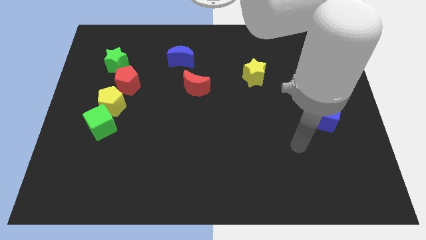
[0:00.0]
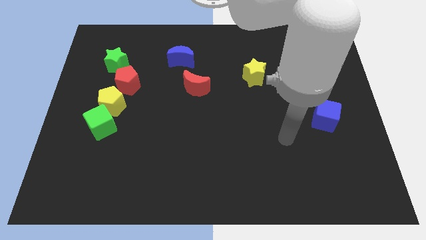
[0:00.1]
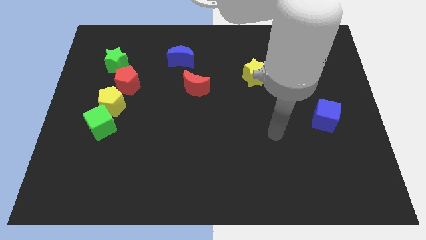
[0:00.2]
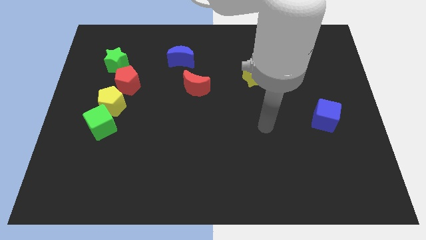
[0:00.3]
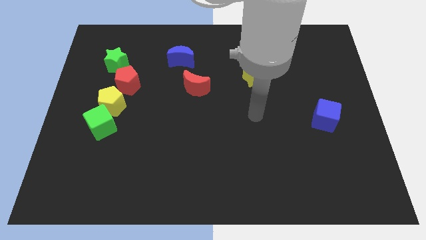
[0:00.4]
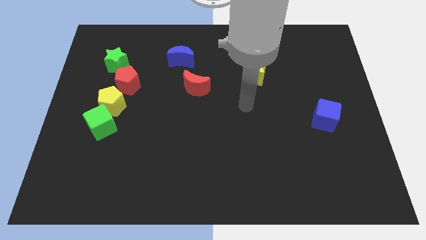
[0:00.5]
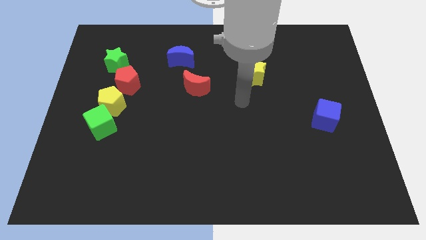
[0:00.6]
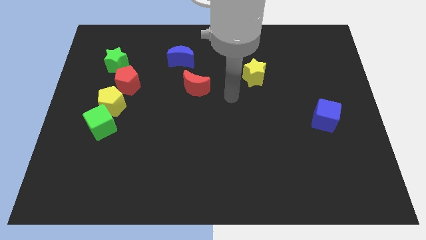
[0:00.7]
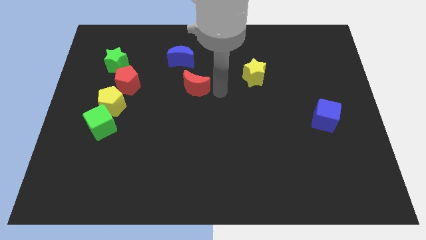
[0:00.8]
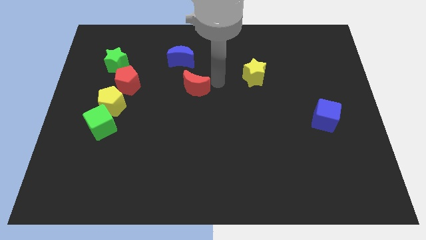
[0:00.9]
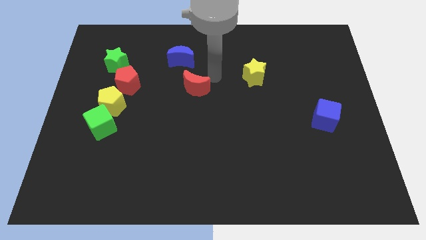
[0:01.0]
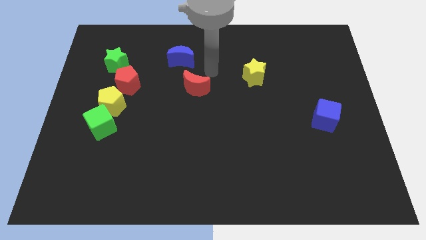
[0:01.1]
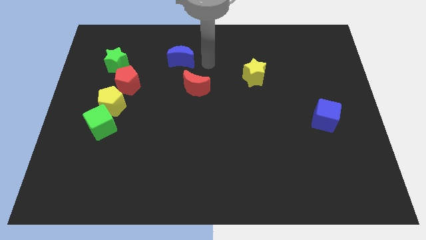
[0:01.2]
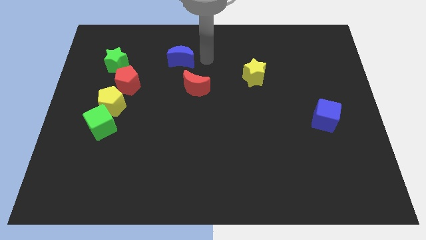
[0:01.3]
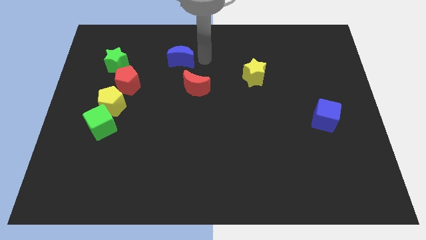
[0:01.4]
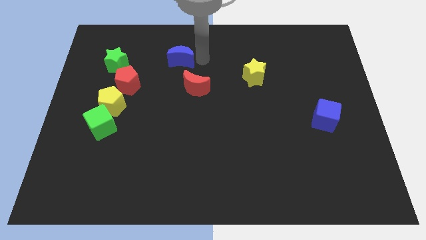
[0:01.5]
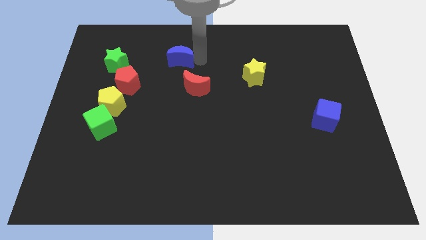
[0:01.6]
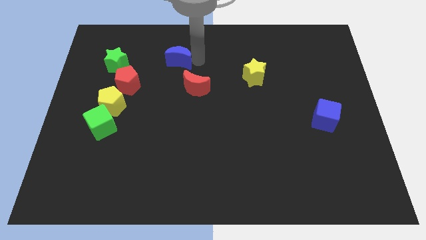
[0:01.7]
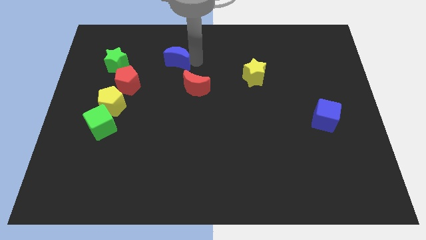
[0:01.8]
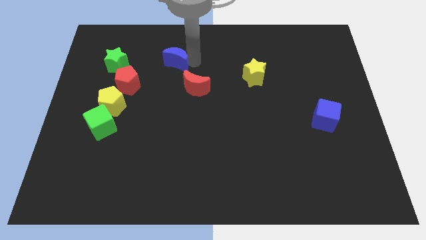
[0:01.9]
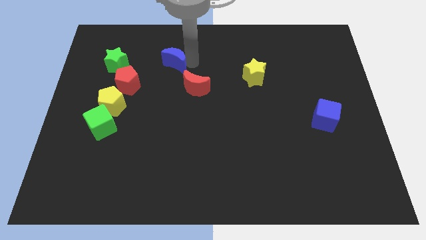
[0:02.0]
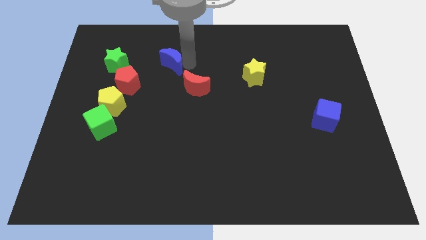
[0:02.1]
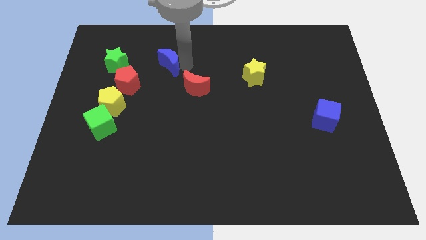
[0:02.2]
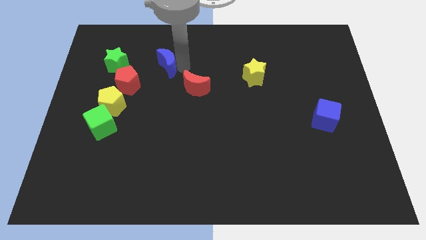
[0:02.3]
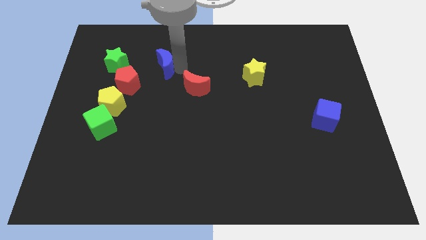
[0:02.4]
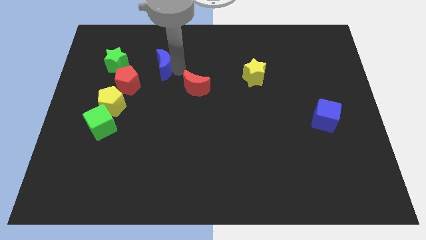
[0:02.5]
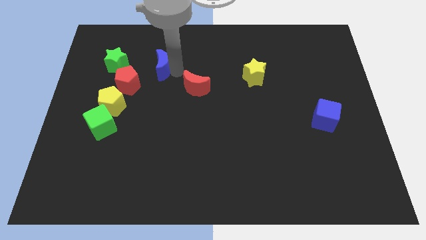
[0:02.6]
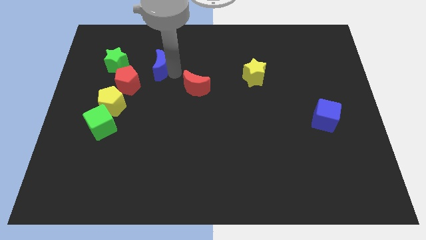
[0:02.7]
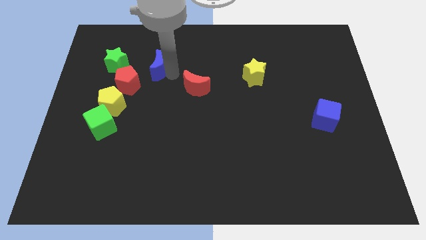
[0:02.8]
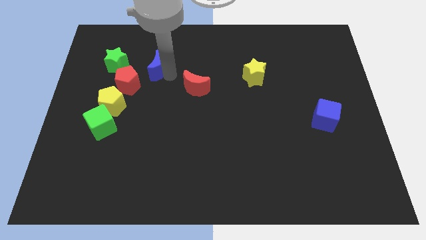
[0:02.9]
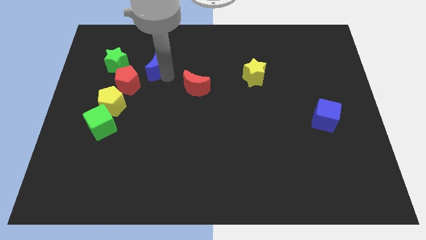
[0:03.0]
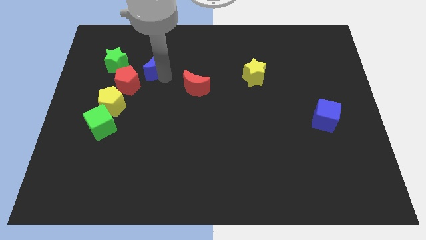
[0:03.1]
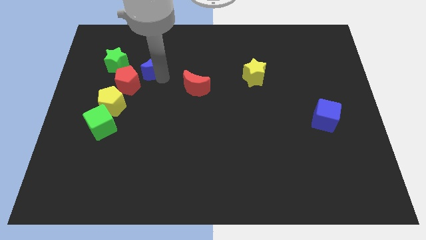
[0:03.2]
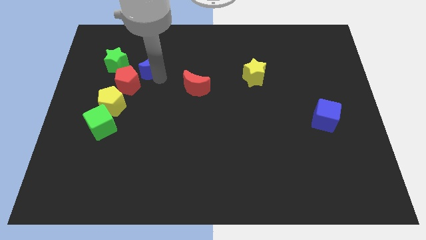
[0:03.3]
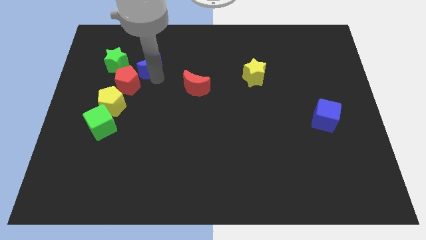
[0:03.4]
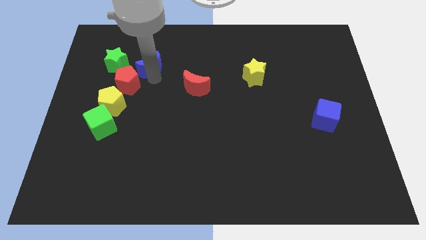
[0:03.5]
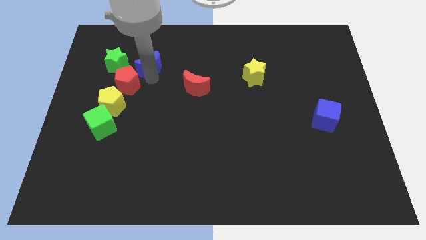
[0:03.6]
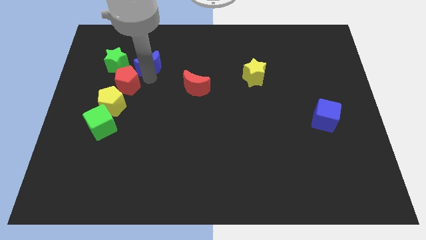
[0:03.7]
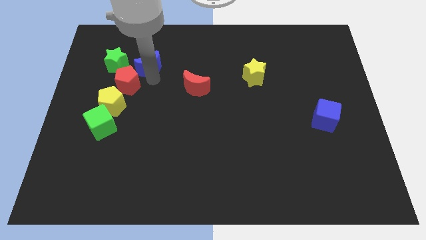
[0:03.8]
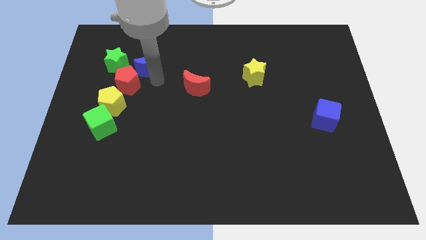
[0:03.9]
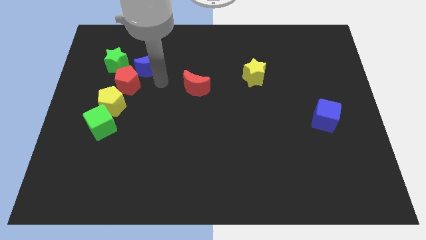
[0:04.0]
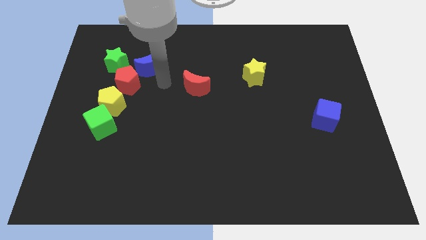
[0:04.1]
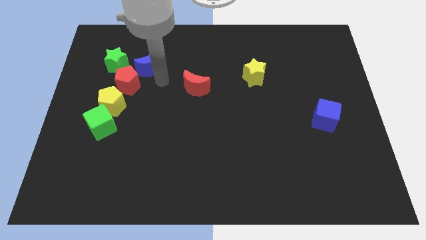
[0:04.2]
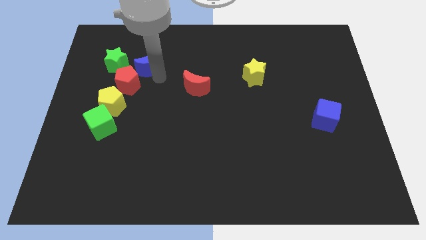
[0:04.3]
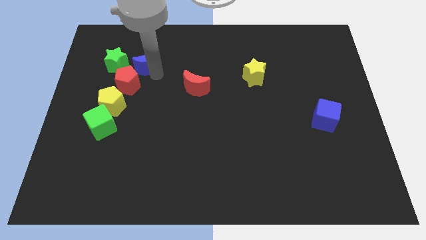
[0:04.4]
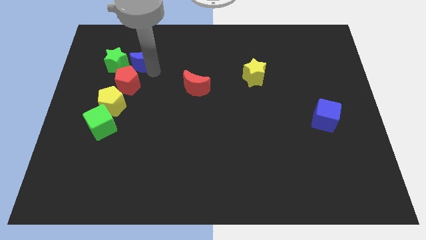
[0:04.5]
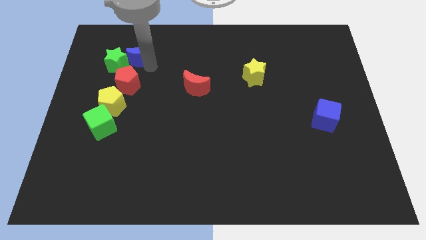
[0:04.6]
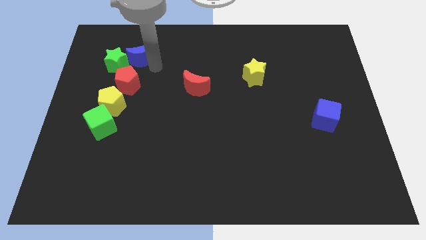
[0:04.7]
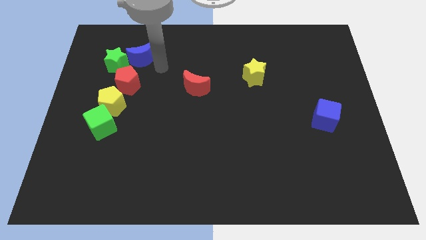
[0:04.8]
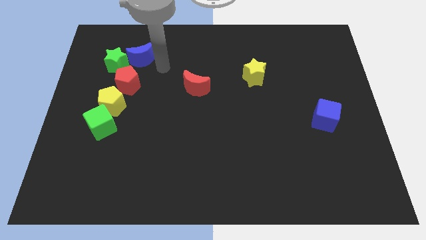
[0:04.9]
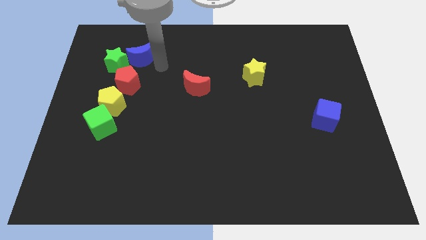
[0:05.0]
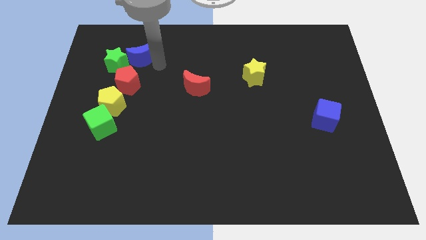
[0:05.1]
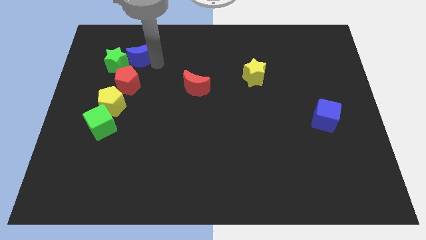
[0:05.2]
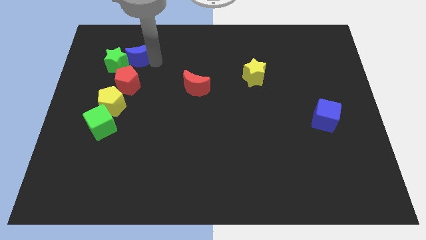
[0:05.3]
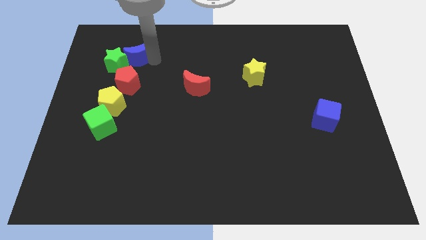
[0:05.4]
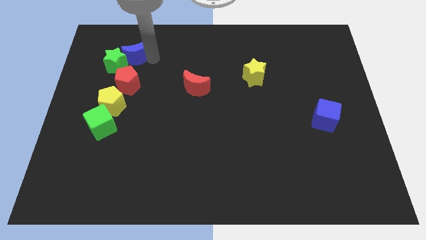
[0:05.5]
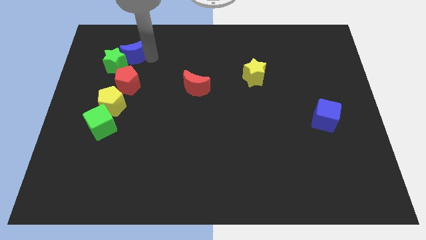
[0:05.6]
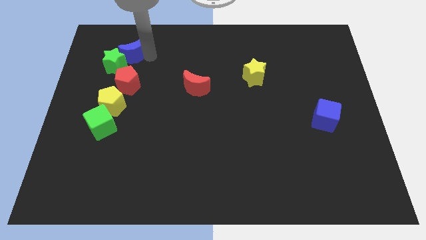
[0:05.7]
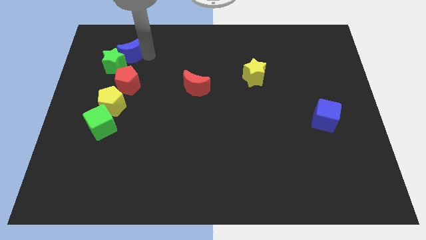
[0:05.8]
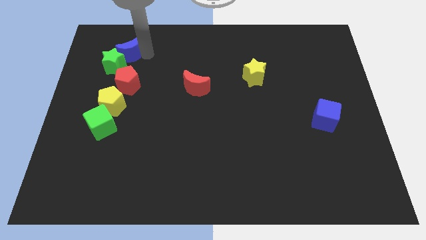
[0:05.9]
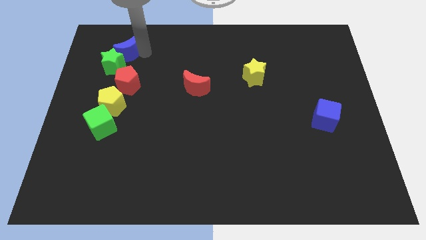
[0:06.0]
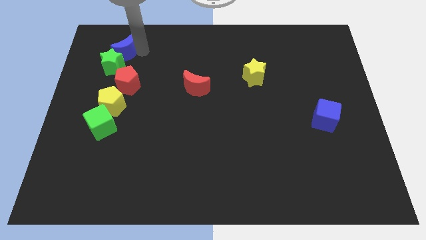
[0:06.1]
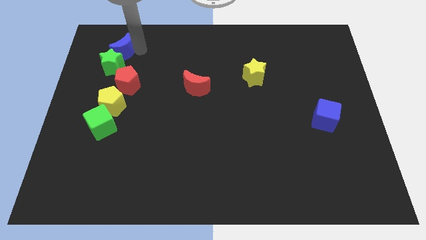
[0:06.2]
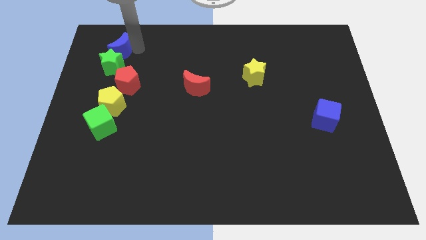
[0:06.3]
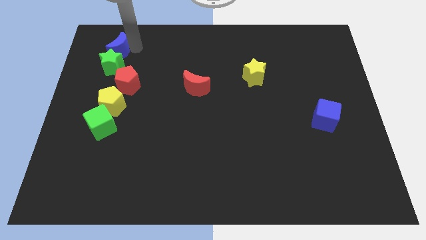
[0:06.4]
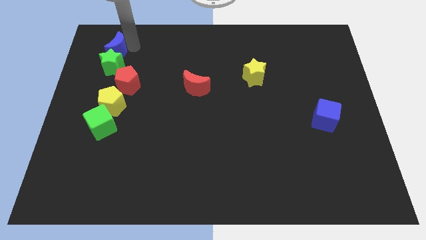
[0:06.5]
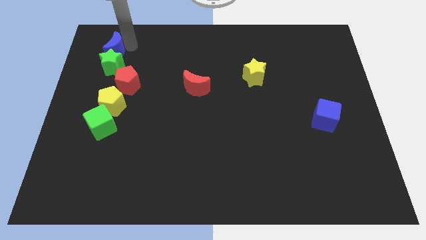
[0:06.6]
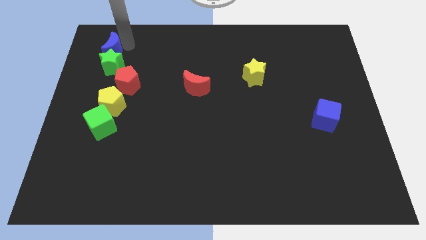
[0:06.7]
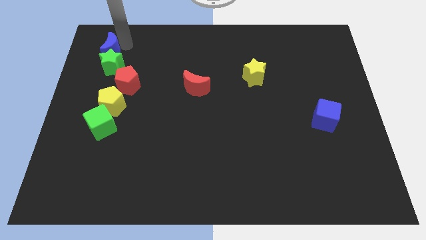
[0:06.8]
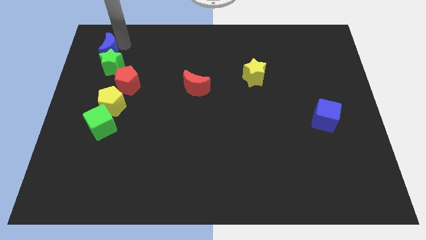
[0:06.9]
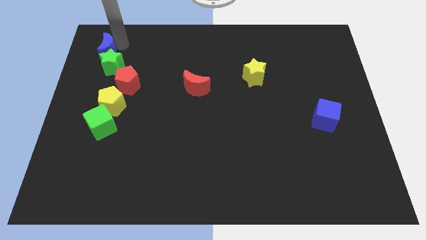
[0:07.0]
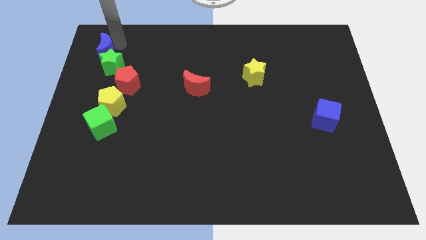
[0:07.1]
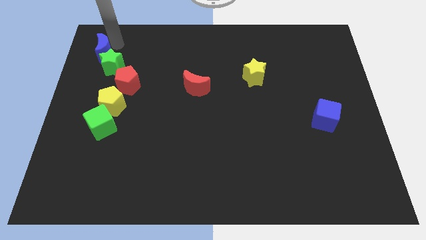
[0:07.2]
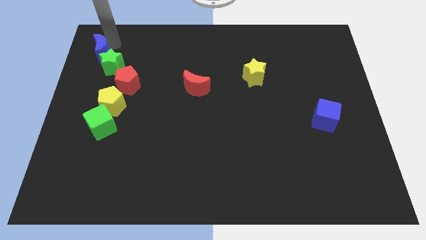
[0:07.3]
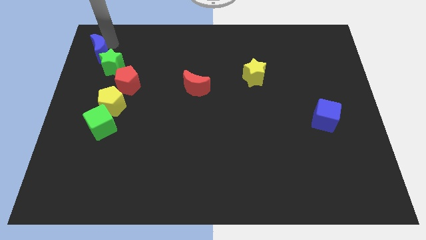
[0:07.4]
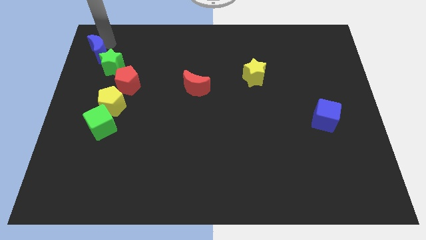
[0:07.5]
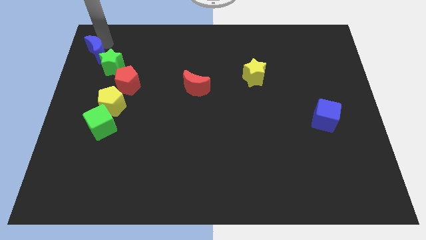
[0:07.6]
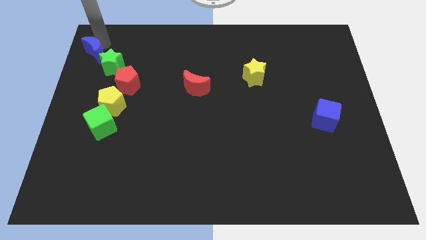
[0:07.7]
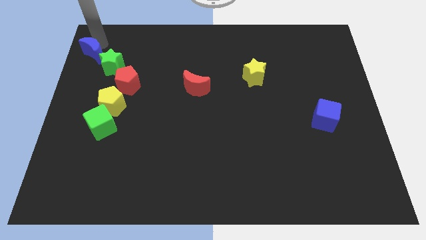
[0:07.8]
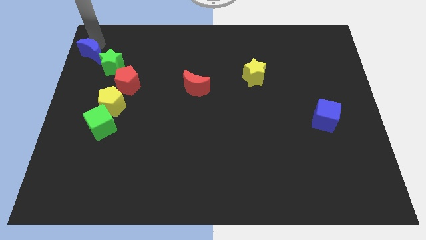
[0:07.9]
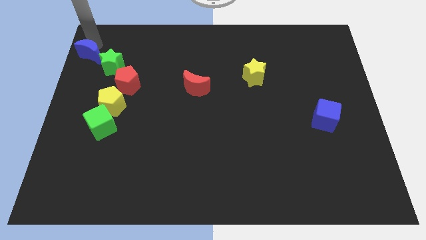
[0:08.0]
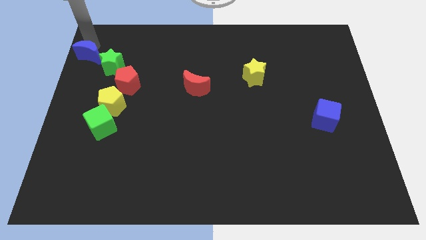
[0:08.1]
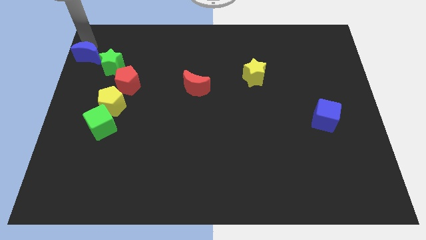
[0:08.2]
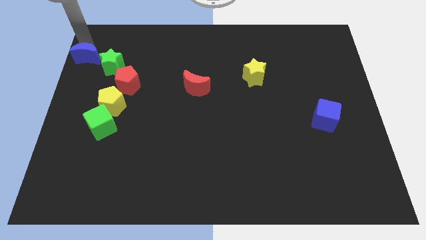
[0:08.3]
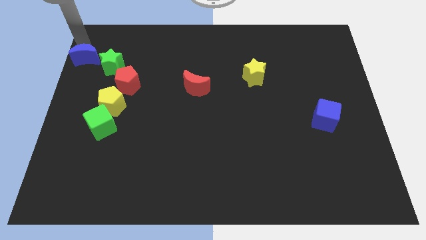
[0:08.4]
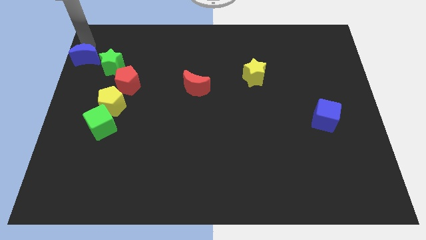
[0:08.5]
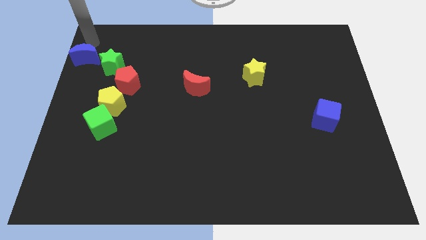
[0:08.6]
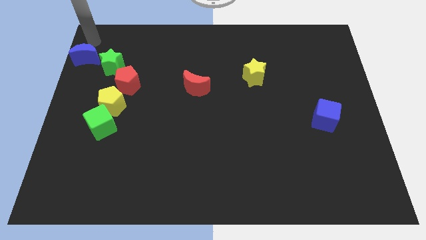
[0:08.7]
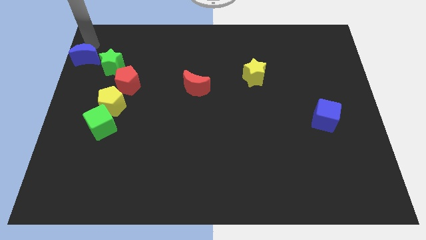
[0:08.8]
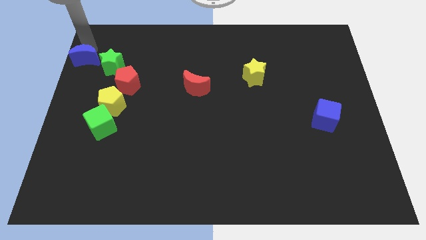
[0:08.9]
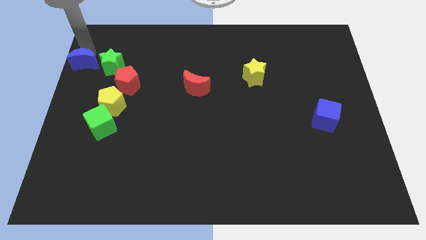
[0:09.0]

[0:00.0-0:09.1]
slide the blue moon to the left side of the board
